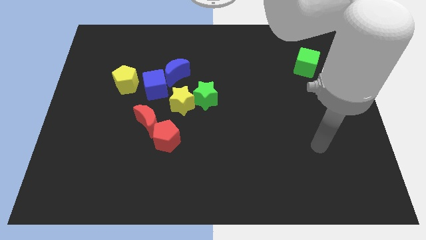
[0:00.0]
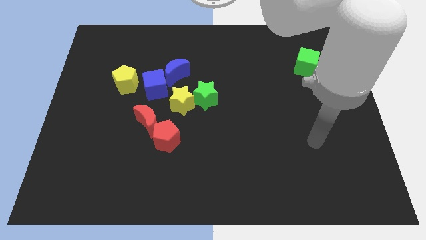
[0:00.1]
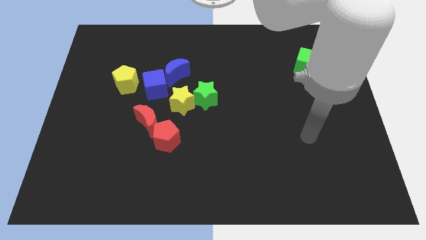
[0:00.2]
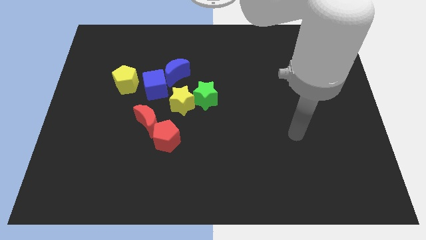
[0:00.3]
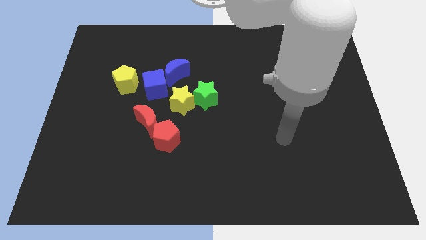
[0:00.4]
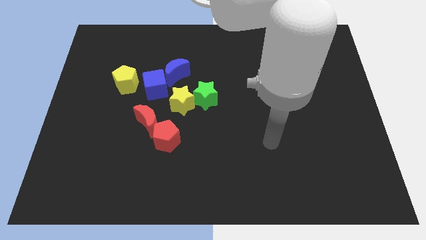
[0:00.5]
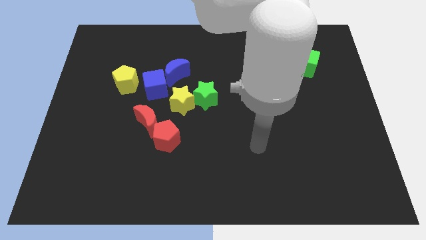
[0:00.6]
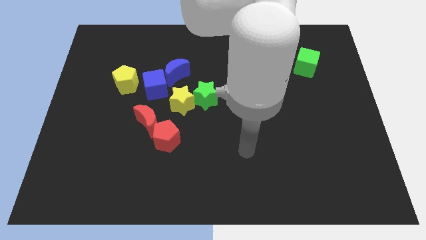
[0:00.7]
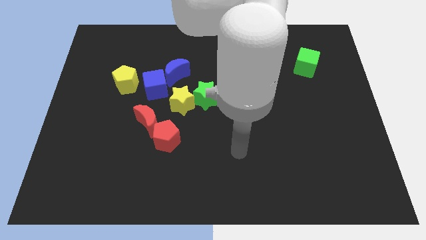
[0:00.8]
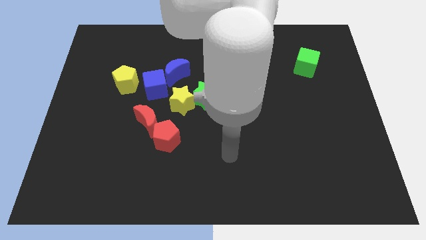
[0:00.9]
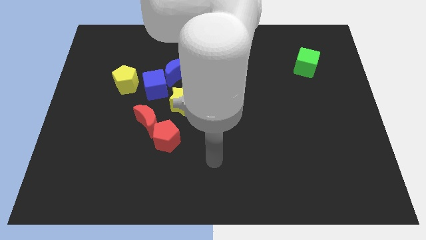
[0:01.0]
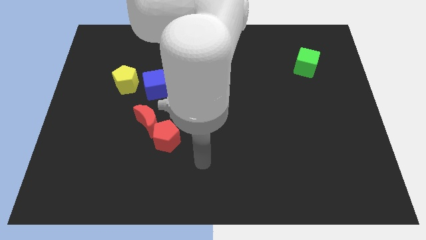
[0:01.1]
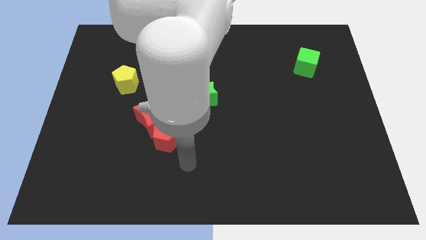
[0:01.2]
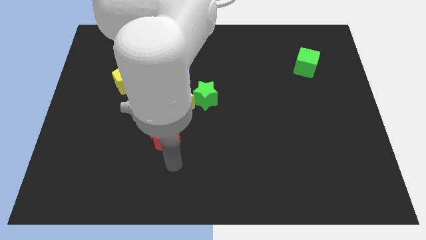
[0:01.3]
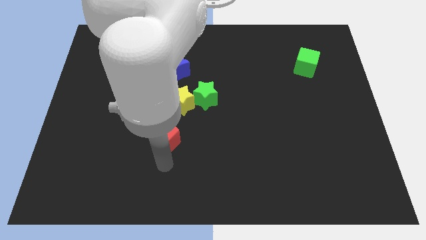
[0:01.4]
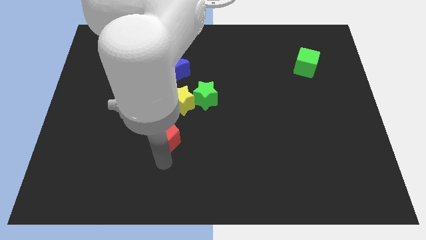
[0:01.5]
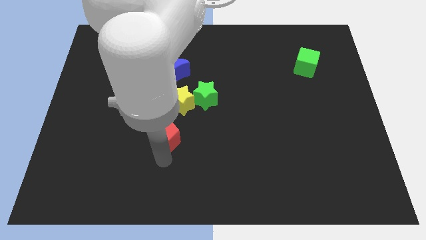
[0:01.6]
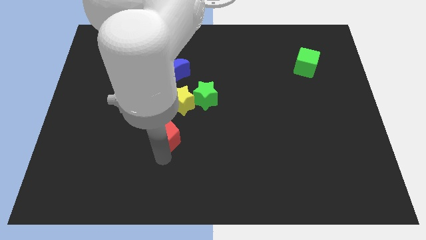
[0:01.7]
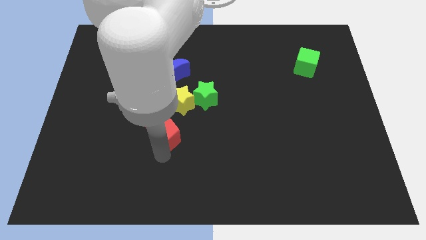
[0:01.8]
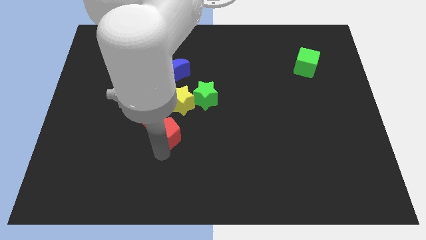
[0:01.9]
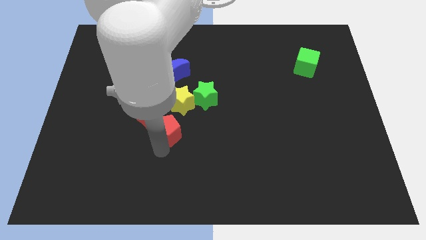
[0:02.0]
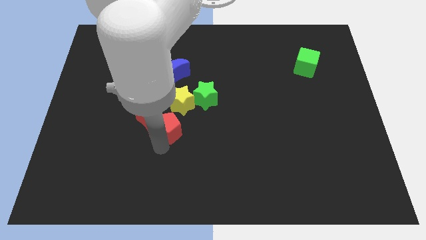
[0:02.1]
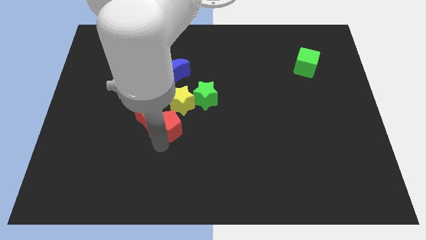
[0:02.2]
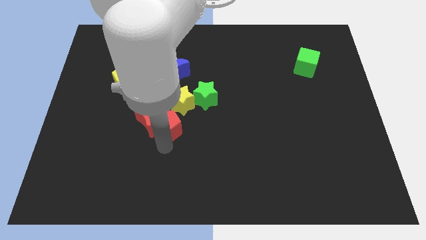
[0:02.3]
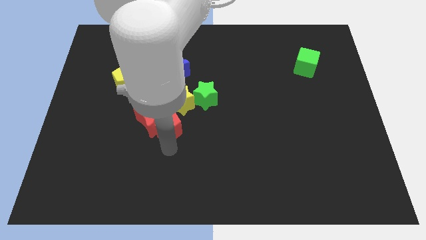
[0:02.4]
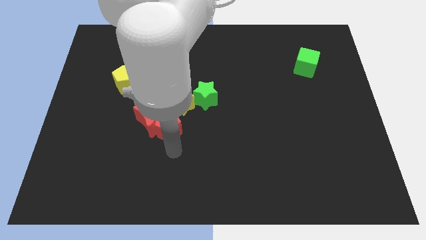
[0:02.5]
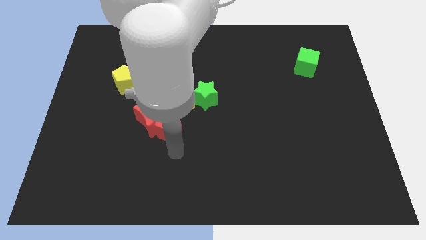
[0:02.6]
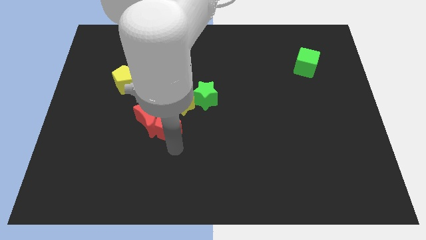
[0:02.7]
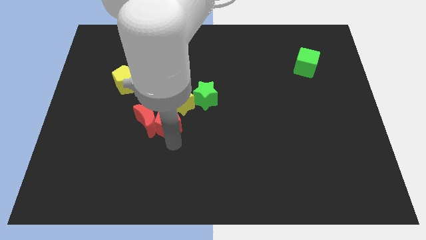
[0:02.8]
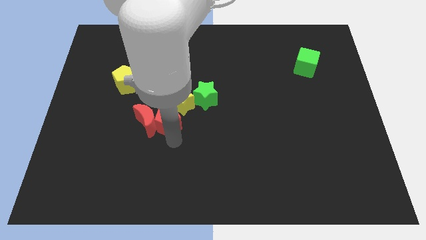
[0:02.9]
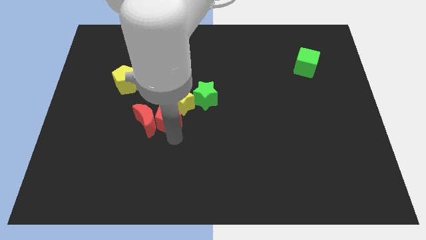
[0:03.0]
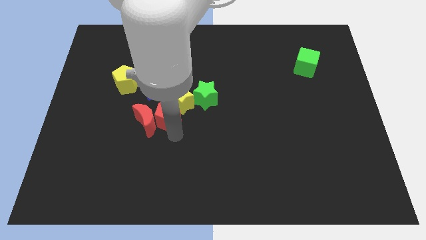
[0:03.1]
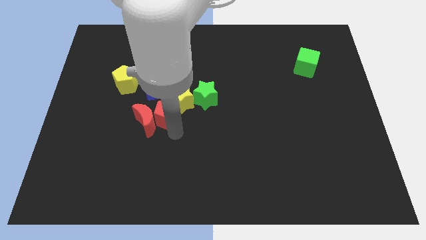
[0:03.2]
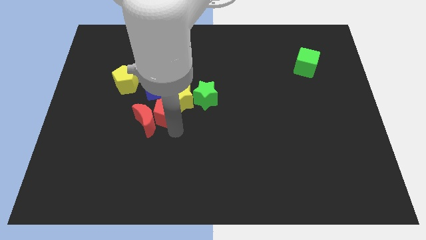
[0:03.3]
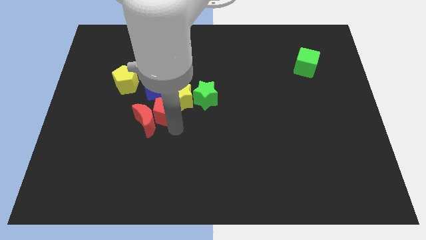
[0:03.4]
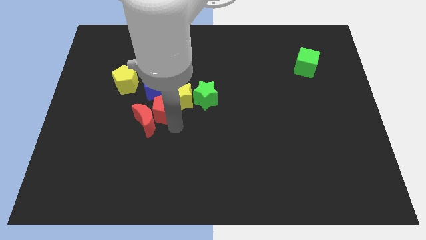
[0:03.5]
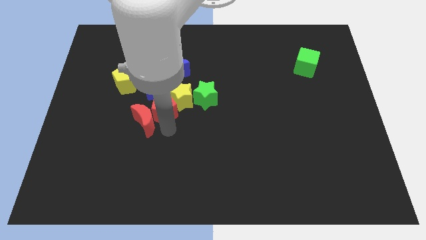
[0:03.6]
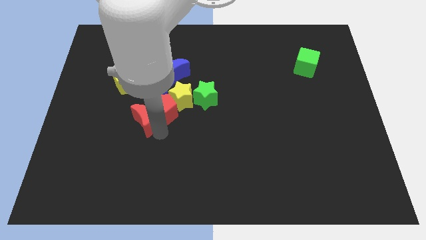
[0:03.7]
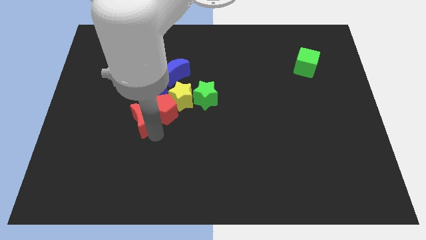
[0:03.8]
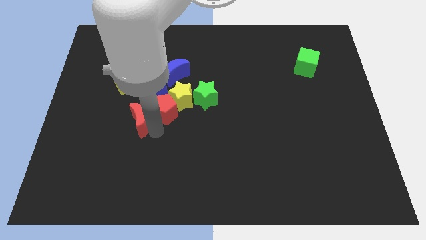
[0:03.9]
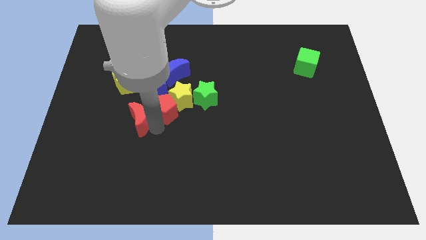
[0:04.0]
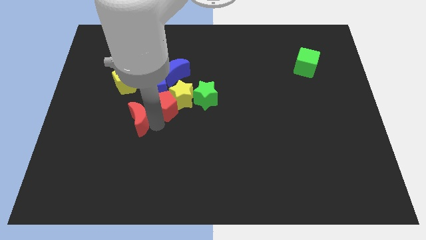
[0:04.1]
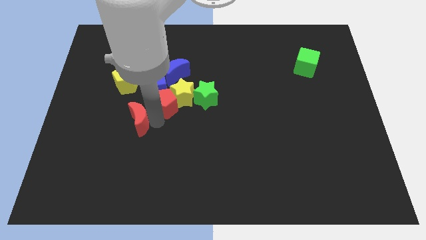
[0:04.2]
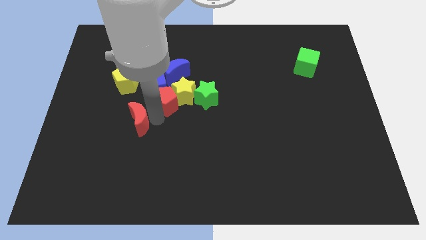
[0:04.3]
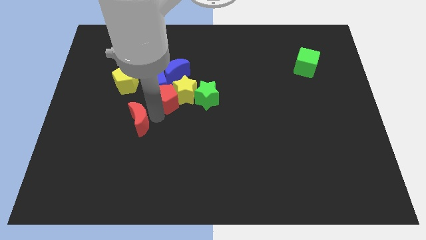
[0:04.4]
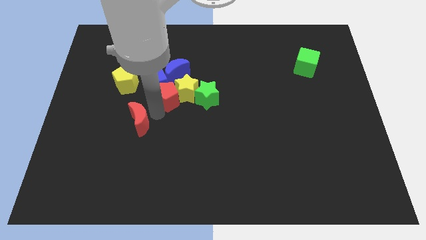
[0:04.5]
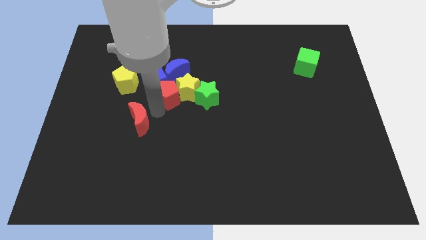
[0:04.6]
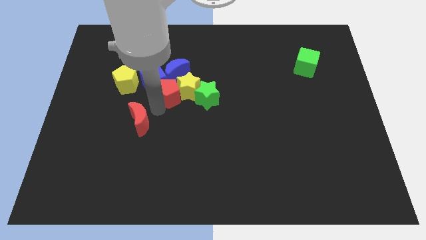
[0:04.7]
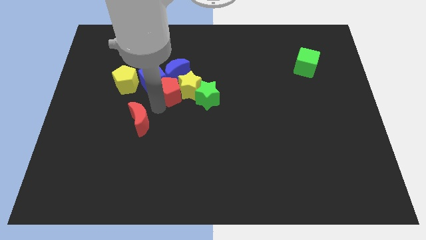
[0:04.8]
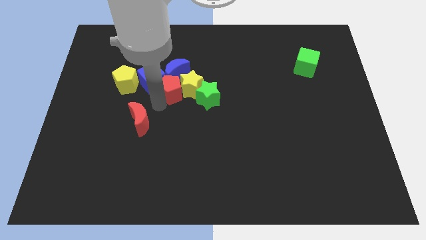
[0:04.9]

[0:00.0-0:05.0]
move the red pentagon to the blue moon

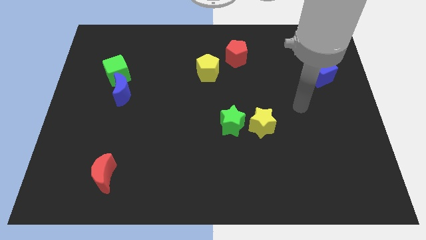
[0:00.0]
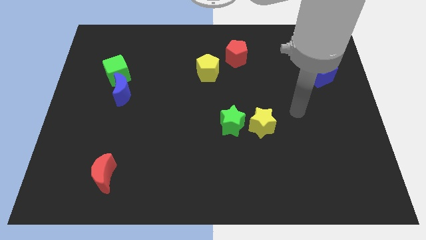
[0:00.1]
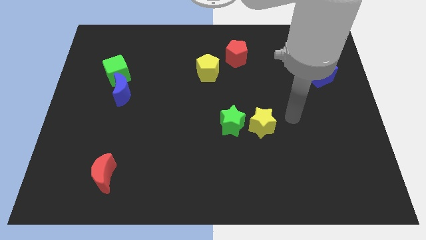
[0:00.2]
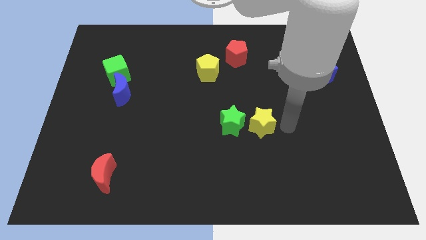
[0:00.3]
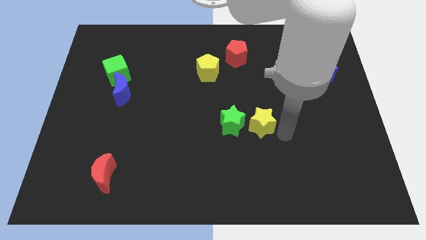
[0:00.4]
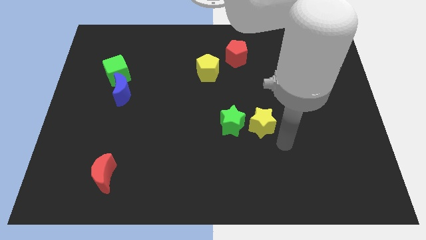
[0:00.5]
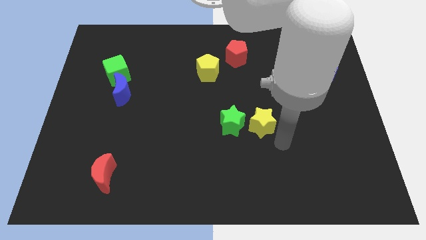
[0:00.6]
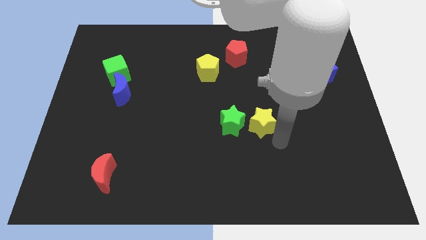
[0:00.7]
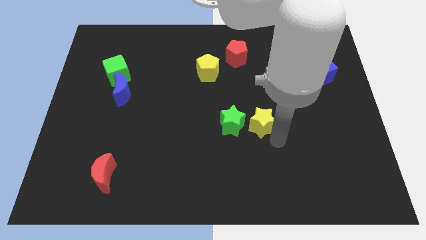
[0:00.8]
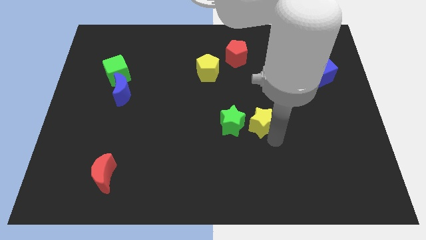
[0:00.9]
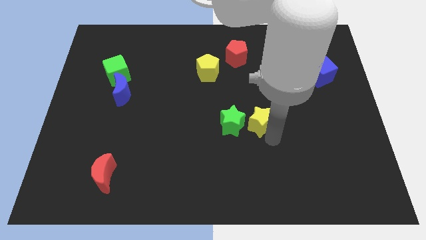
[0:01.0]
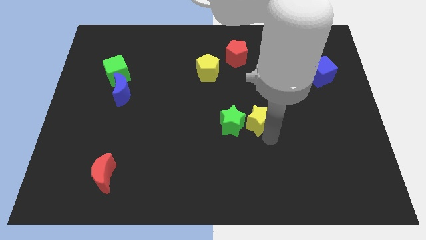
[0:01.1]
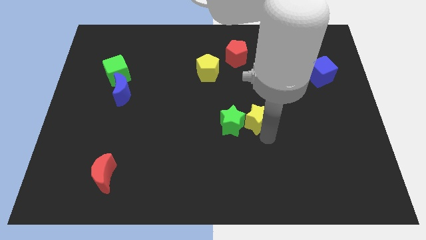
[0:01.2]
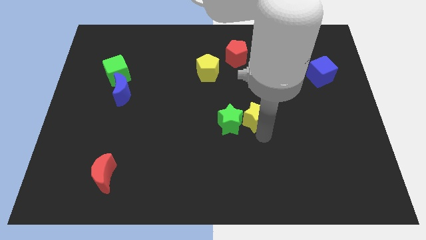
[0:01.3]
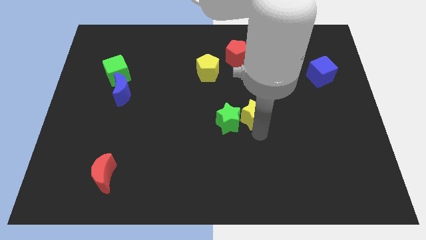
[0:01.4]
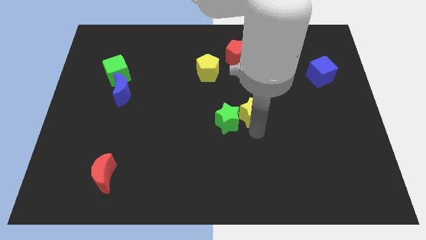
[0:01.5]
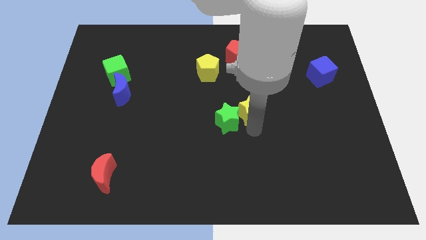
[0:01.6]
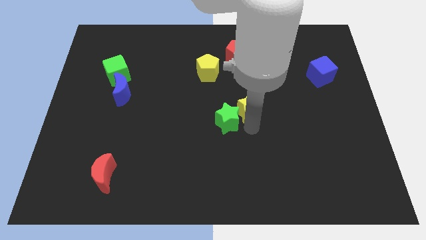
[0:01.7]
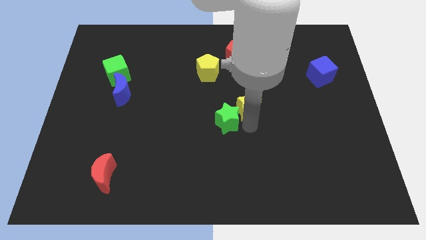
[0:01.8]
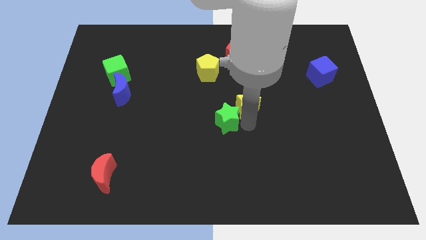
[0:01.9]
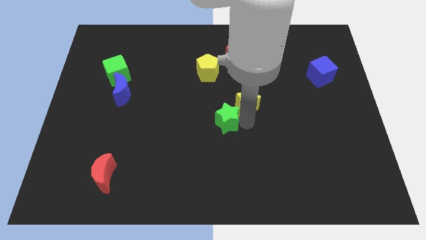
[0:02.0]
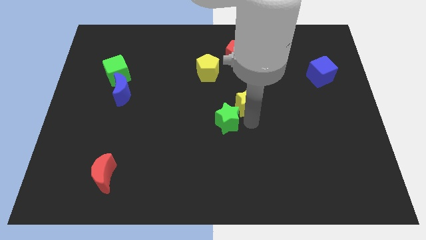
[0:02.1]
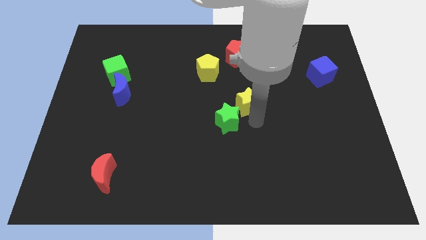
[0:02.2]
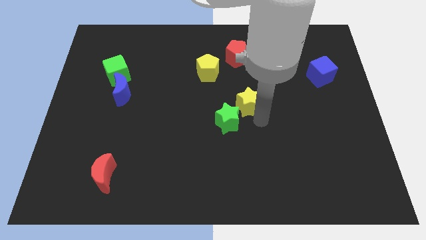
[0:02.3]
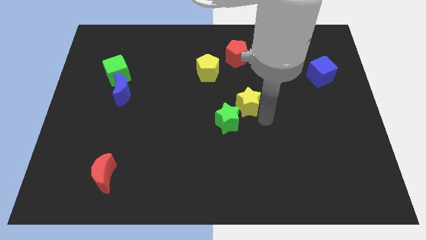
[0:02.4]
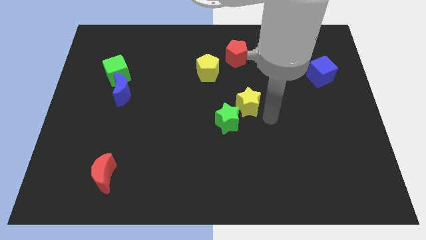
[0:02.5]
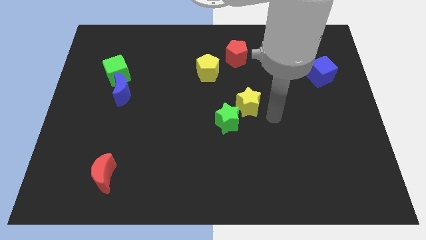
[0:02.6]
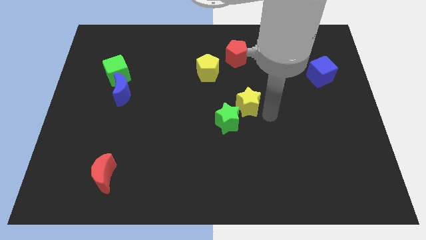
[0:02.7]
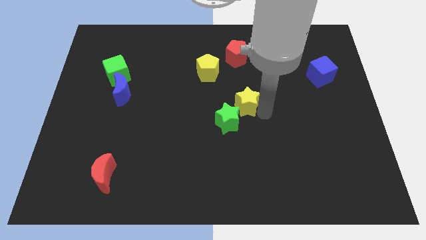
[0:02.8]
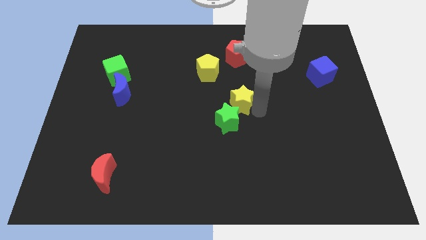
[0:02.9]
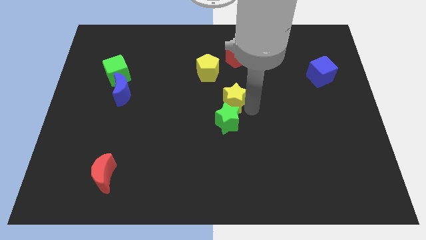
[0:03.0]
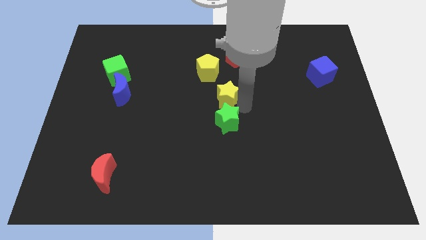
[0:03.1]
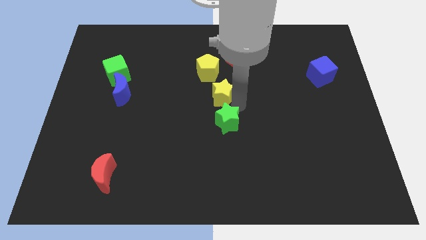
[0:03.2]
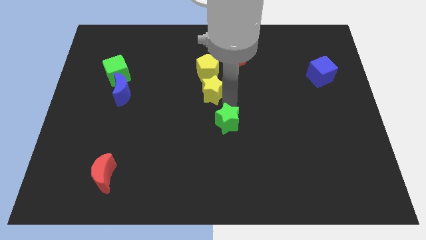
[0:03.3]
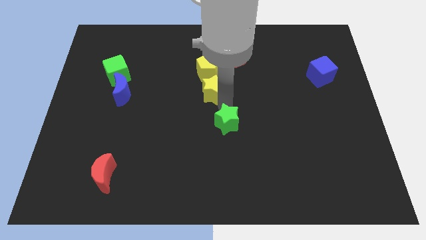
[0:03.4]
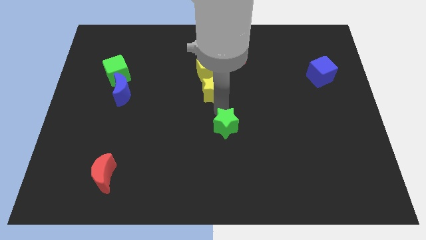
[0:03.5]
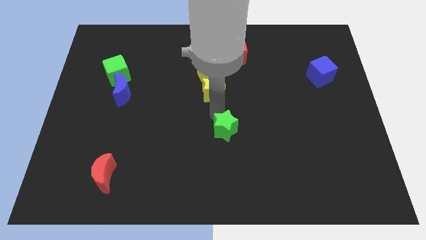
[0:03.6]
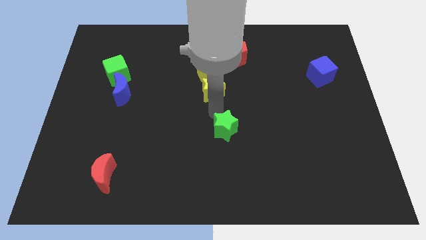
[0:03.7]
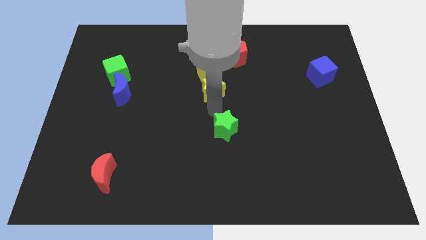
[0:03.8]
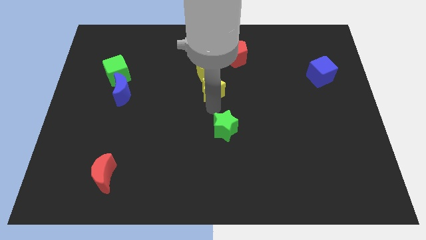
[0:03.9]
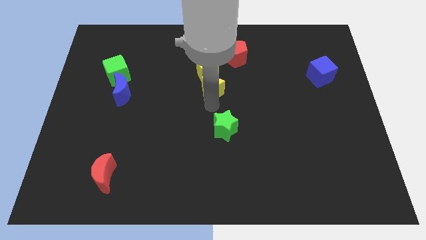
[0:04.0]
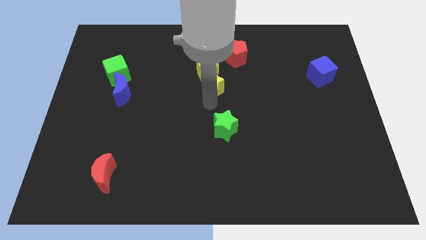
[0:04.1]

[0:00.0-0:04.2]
put the yellow star to the yellow pentagon
